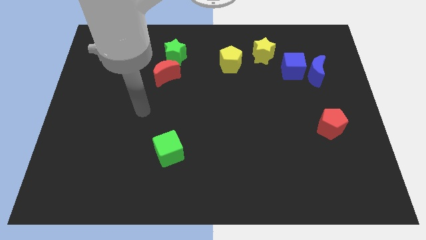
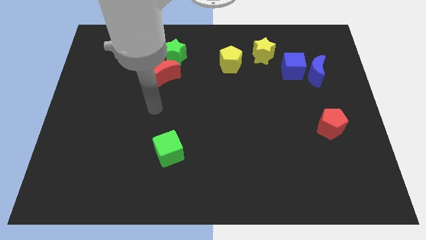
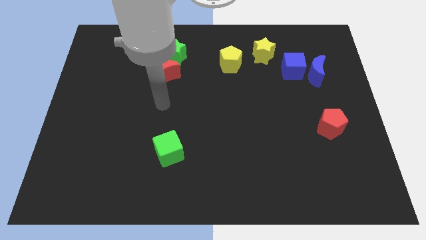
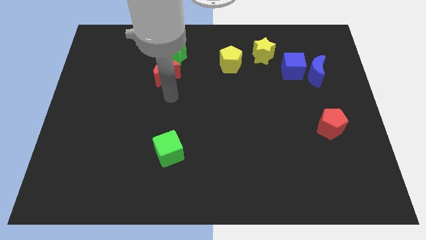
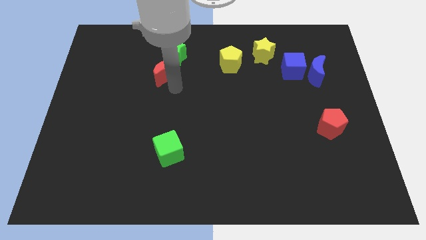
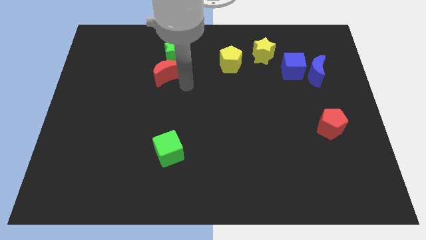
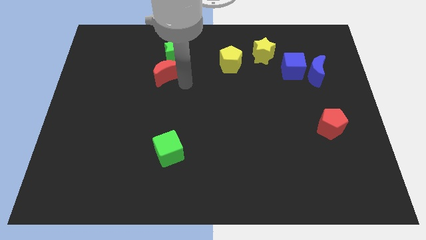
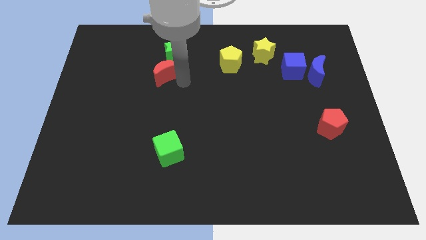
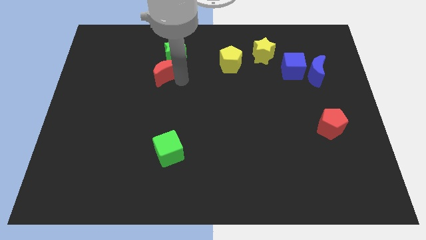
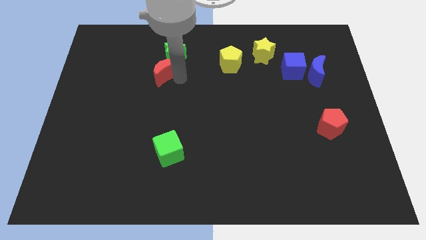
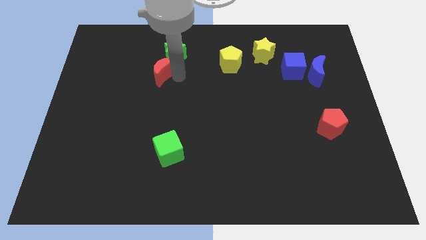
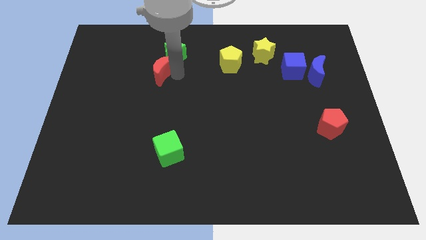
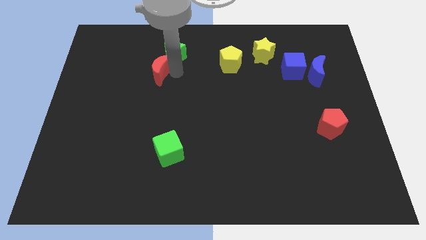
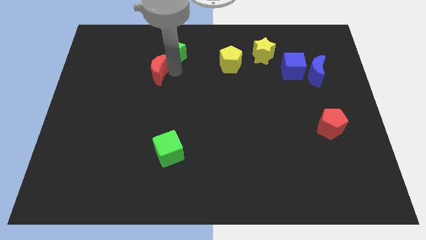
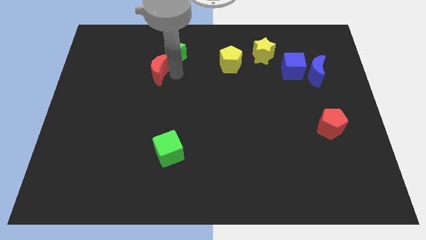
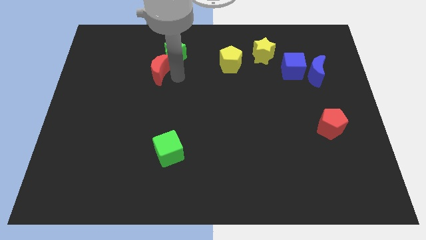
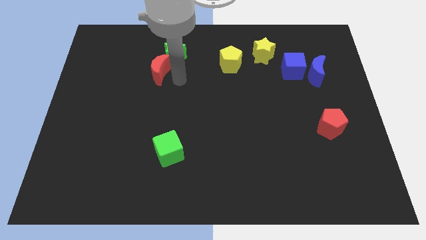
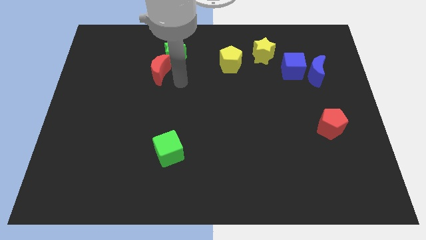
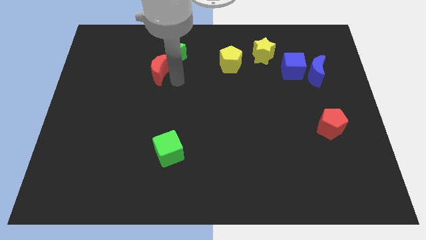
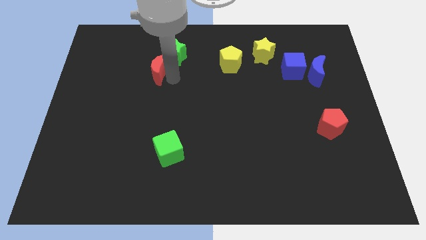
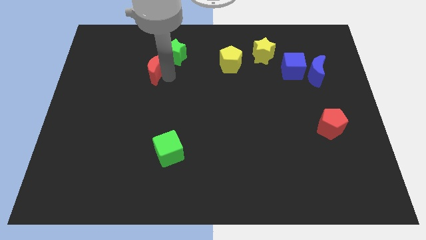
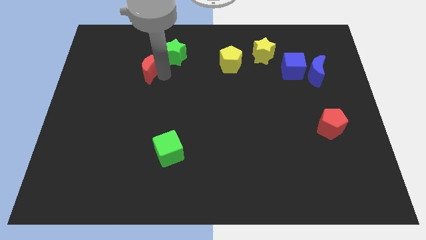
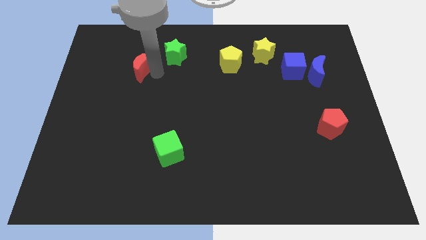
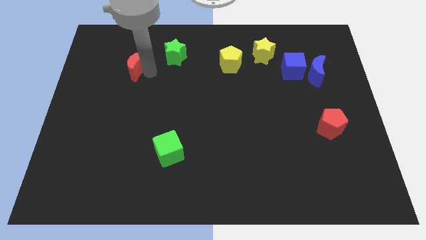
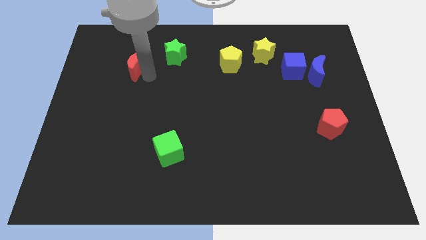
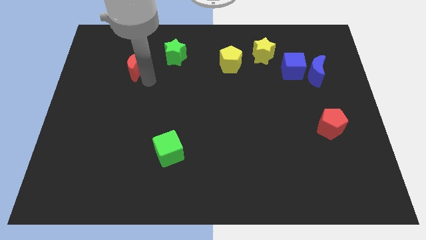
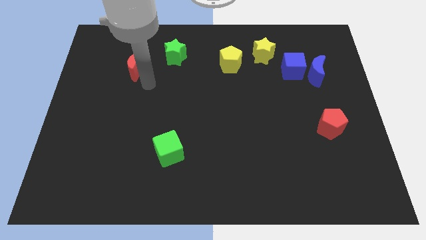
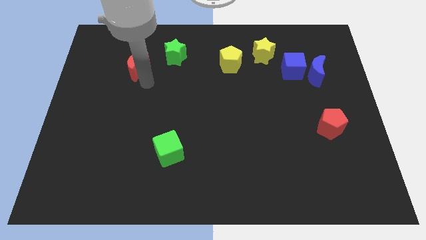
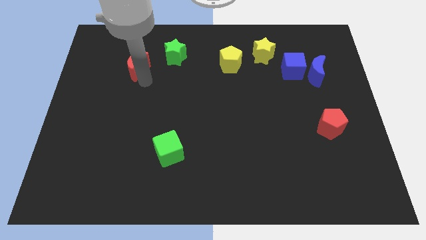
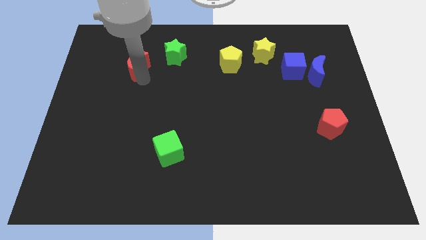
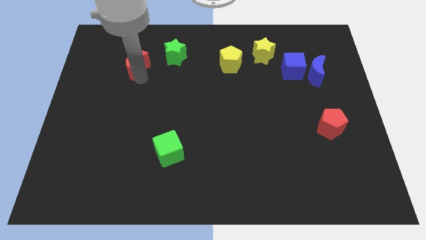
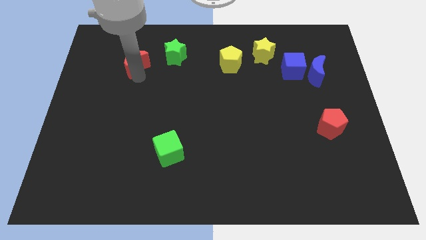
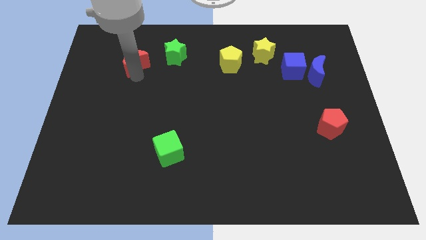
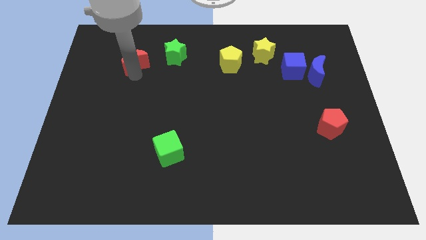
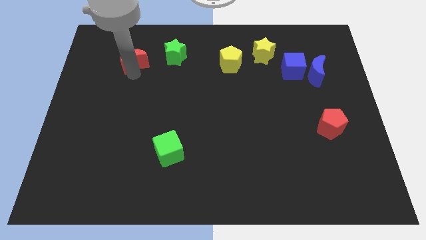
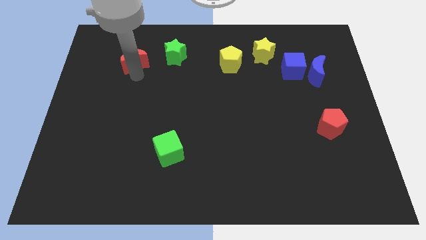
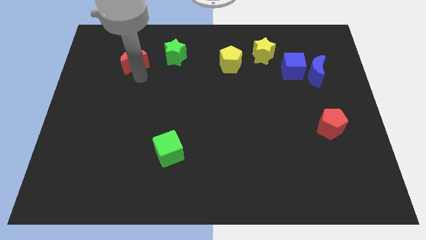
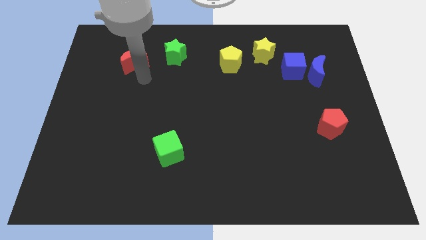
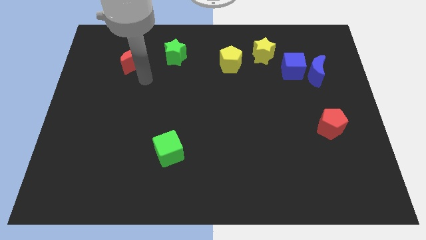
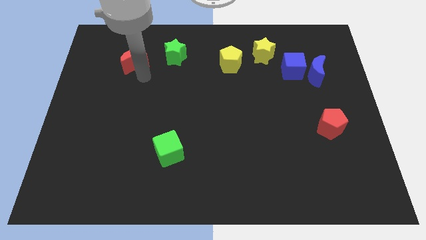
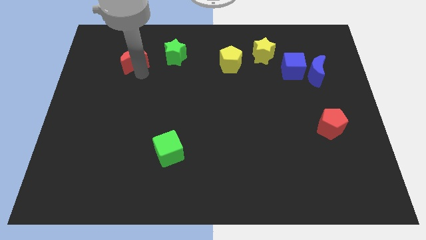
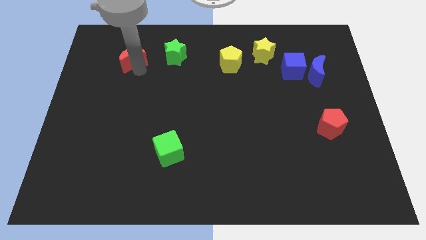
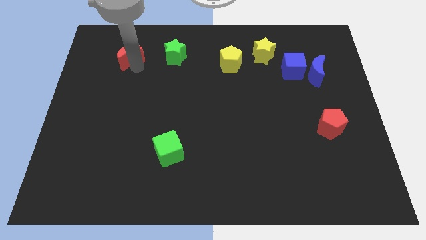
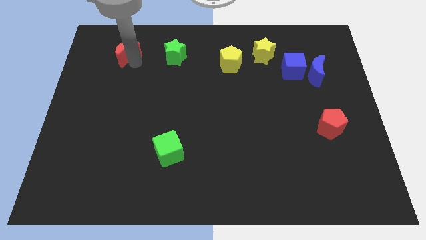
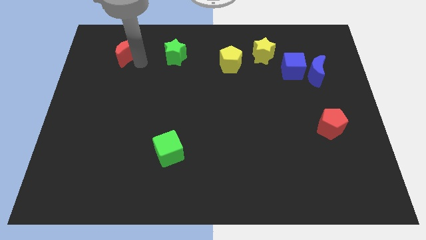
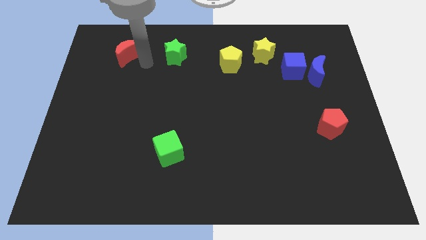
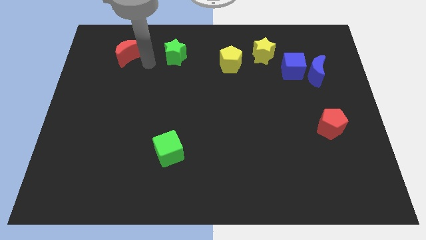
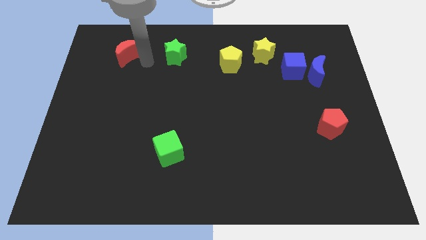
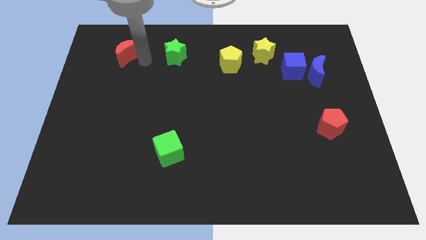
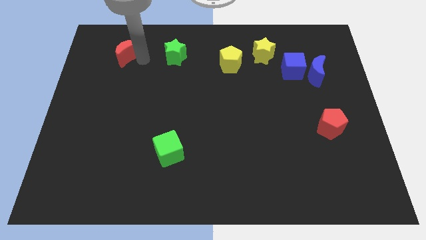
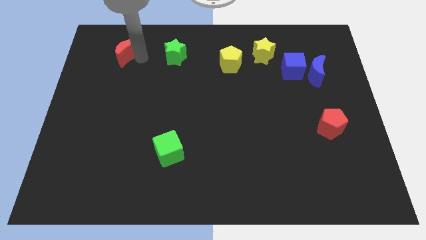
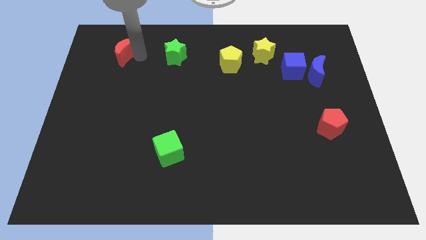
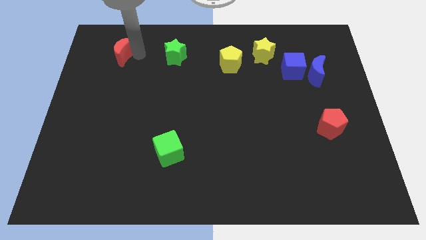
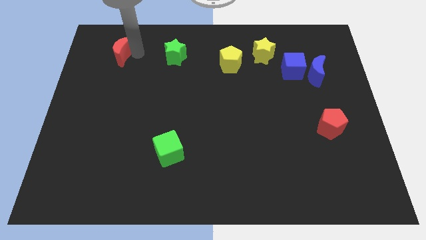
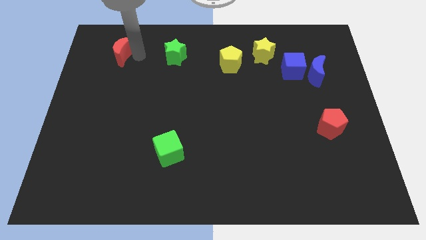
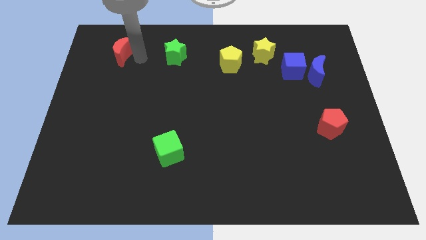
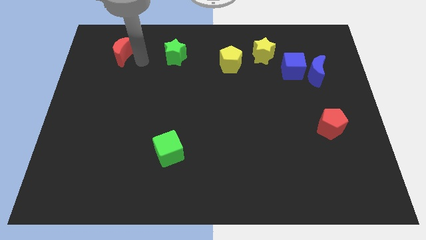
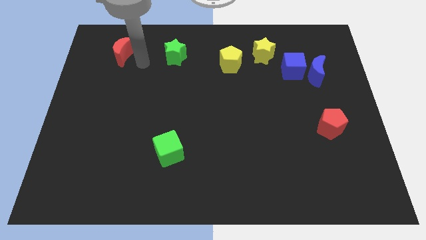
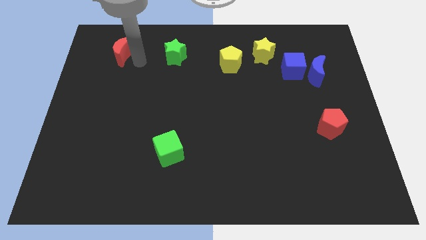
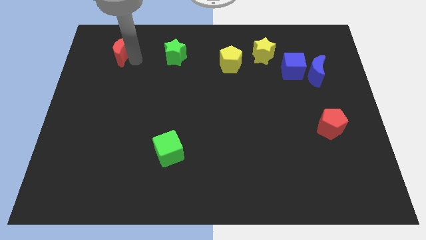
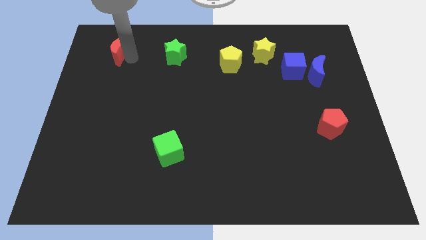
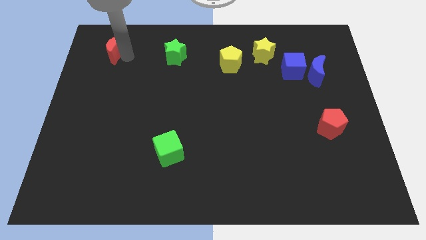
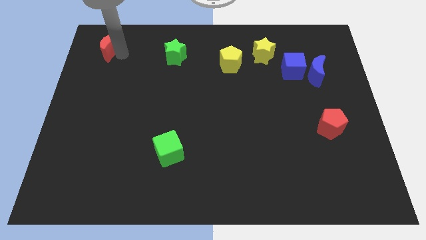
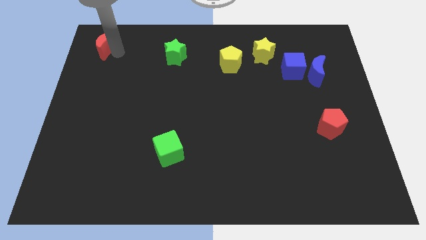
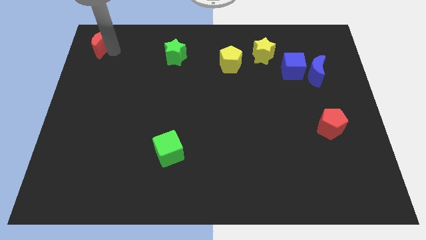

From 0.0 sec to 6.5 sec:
move the red moon to the top left
